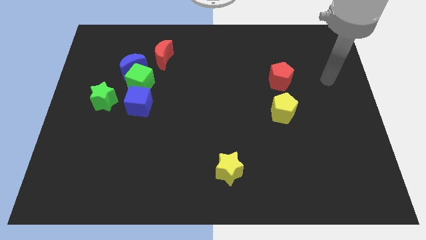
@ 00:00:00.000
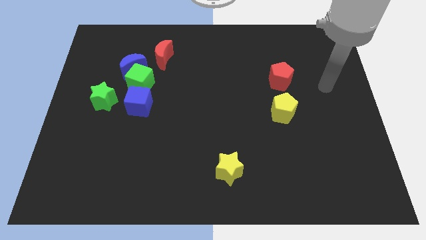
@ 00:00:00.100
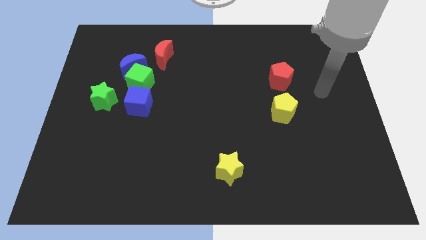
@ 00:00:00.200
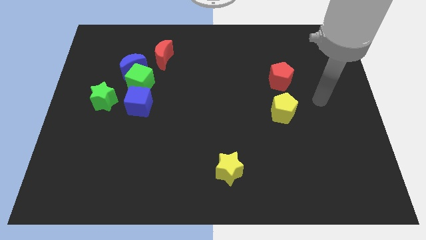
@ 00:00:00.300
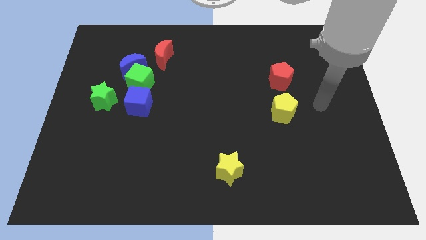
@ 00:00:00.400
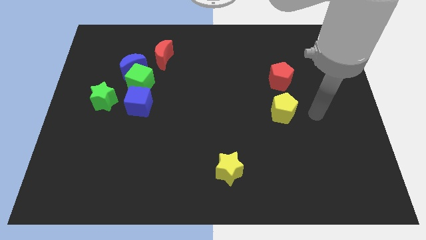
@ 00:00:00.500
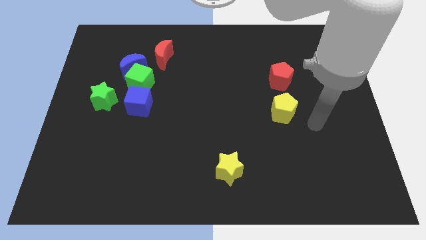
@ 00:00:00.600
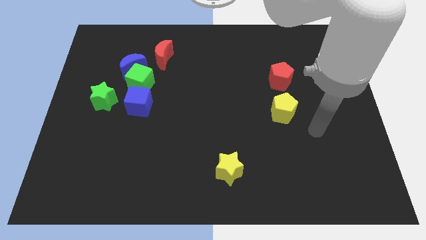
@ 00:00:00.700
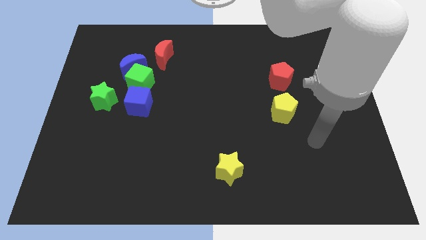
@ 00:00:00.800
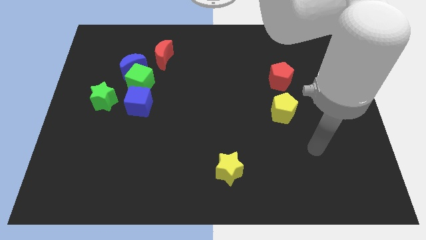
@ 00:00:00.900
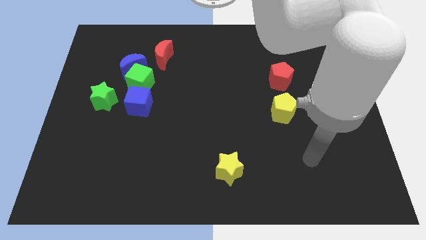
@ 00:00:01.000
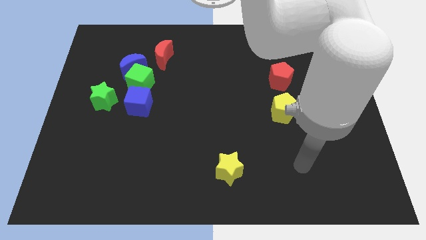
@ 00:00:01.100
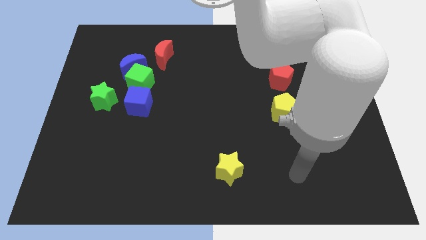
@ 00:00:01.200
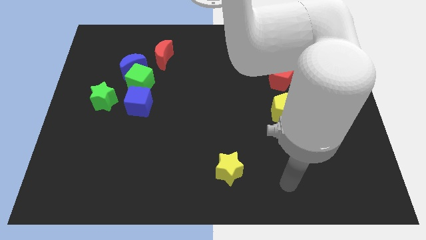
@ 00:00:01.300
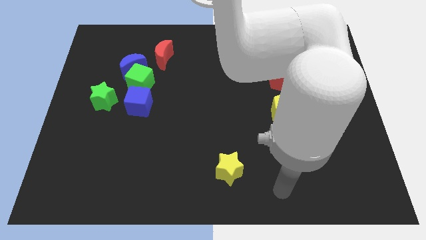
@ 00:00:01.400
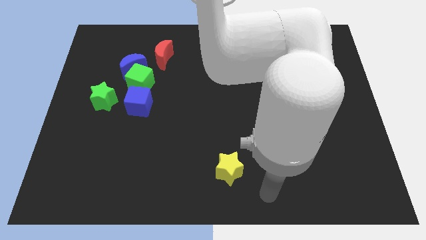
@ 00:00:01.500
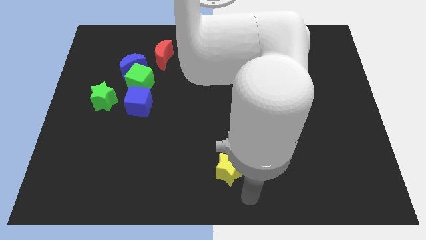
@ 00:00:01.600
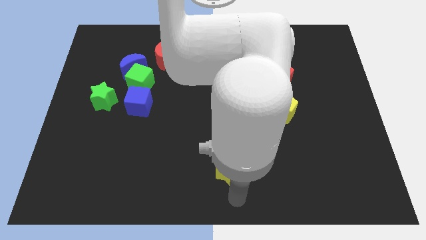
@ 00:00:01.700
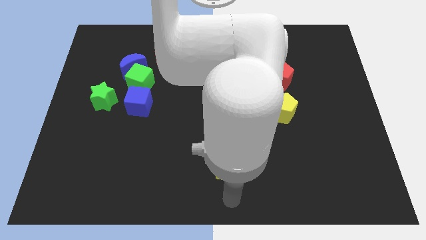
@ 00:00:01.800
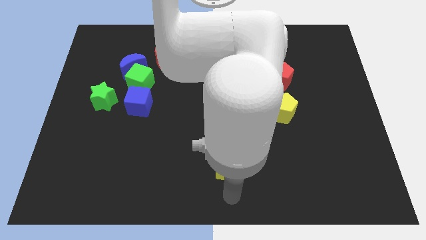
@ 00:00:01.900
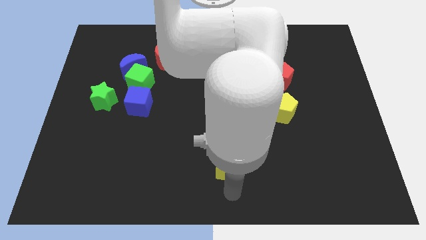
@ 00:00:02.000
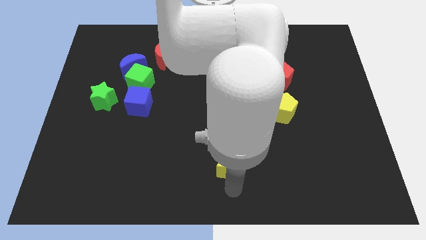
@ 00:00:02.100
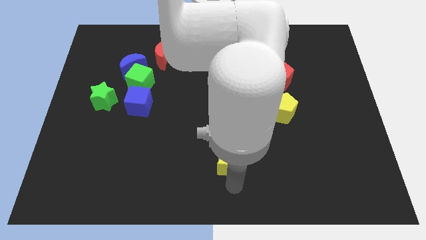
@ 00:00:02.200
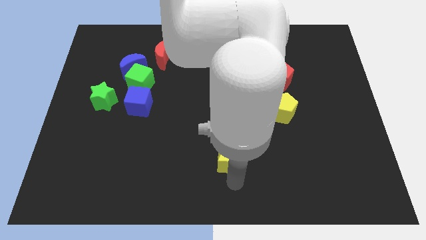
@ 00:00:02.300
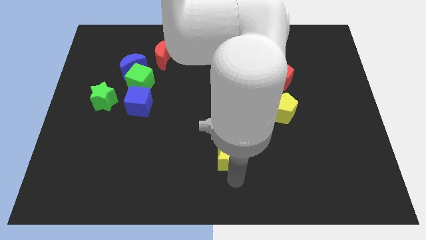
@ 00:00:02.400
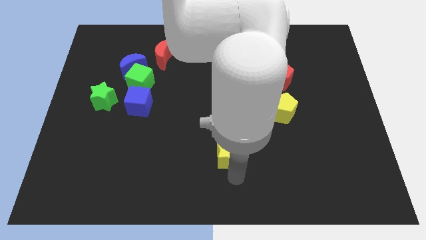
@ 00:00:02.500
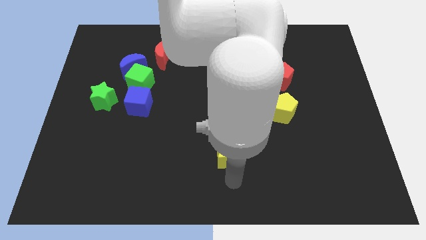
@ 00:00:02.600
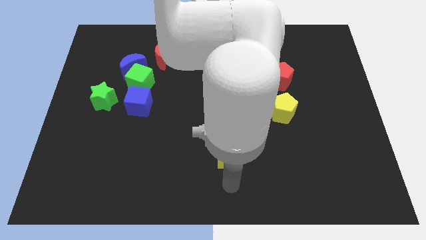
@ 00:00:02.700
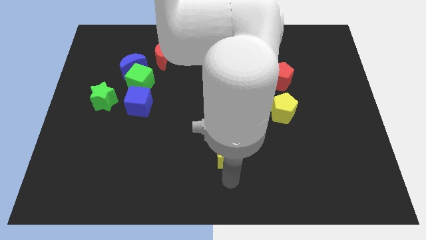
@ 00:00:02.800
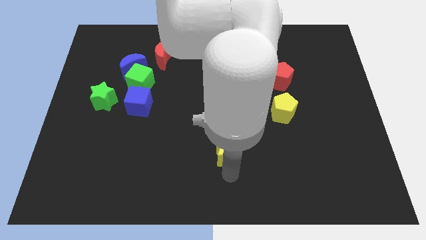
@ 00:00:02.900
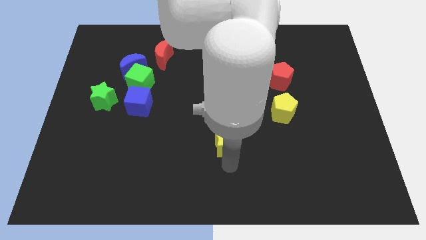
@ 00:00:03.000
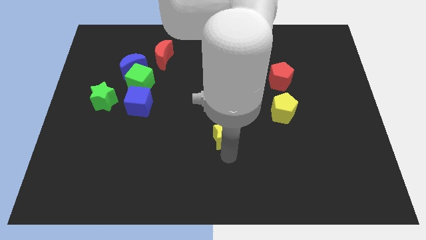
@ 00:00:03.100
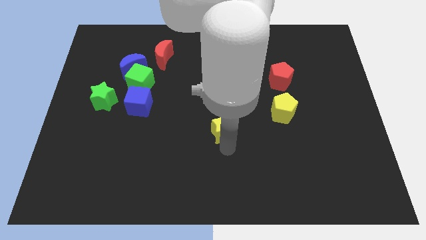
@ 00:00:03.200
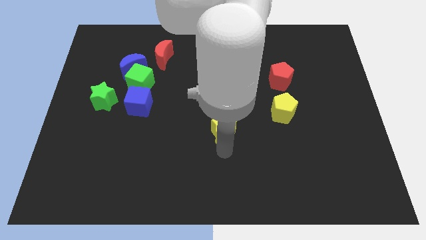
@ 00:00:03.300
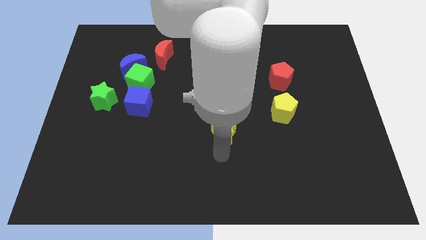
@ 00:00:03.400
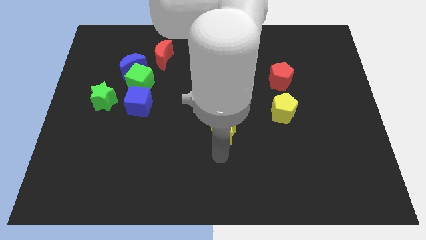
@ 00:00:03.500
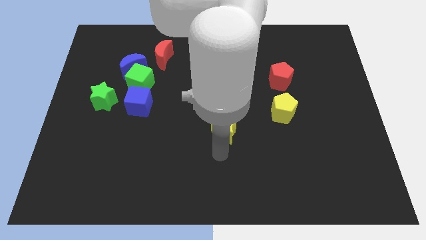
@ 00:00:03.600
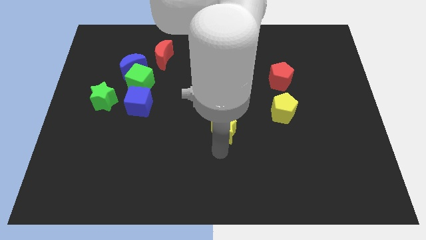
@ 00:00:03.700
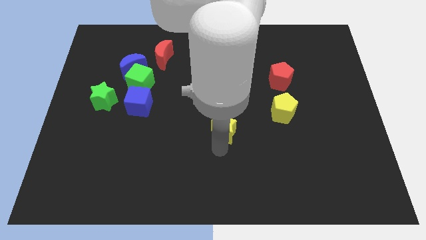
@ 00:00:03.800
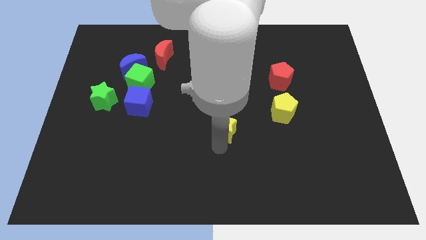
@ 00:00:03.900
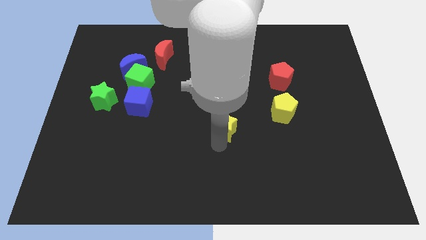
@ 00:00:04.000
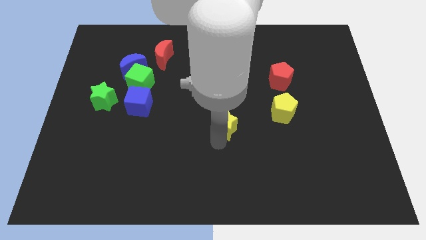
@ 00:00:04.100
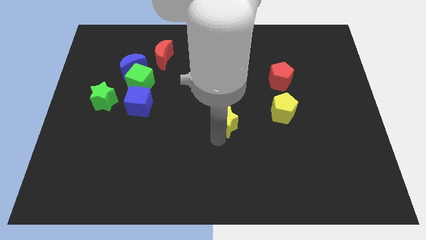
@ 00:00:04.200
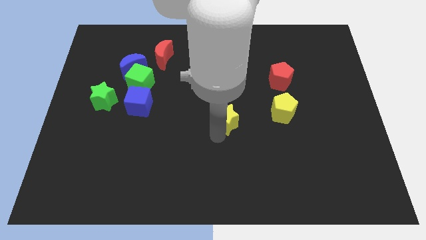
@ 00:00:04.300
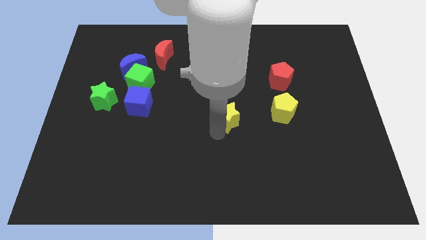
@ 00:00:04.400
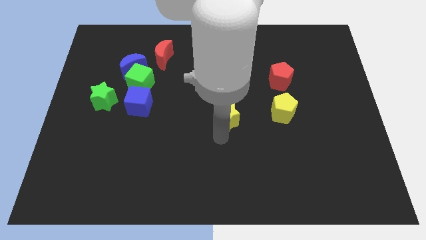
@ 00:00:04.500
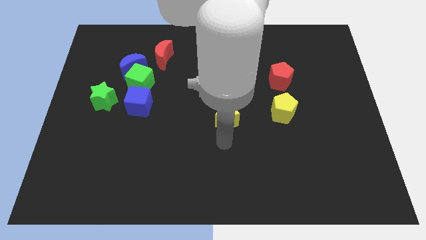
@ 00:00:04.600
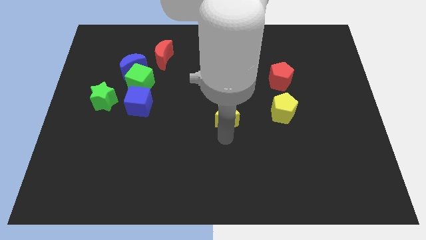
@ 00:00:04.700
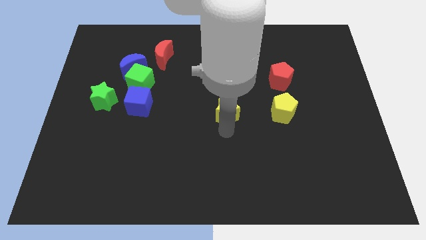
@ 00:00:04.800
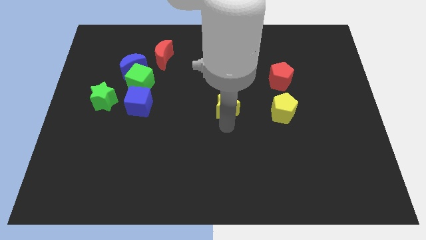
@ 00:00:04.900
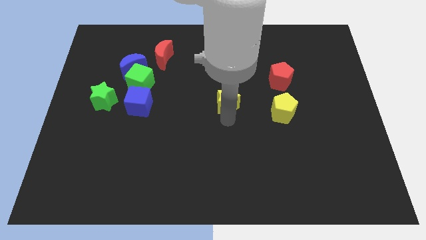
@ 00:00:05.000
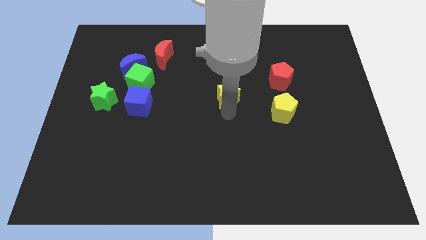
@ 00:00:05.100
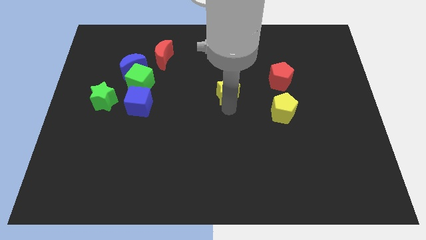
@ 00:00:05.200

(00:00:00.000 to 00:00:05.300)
move the yellow star upwards

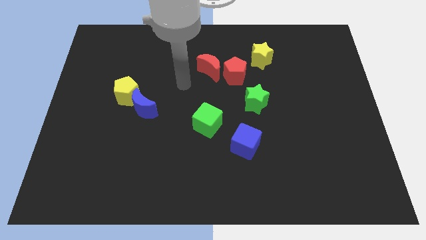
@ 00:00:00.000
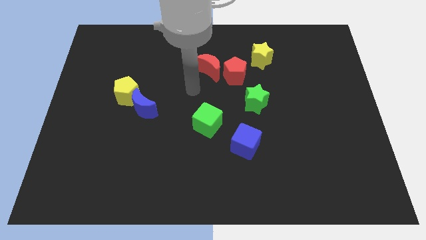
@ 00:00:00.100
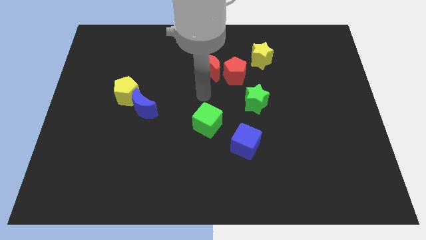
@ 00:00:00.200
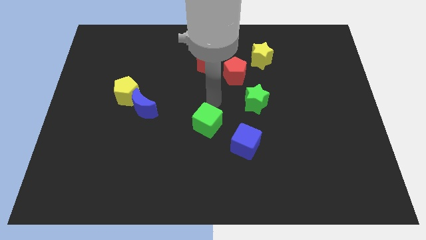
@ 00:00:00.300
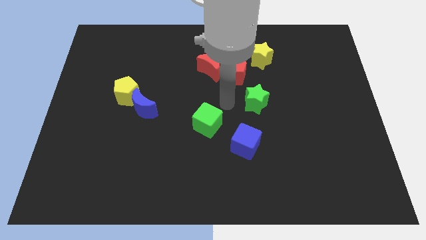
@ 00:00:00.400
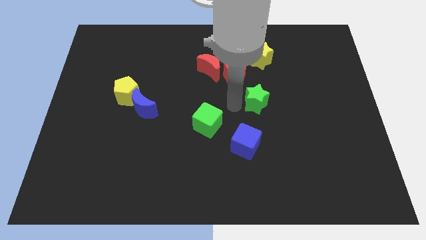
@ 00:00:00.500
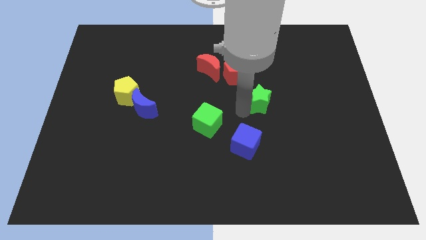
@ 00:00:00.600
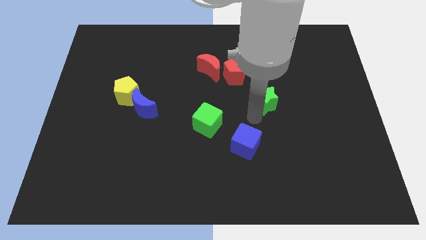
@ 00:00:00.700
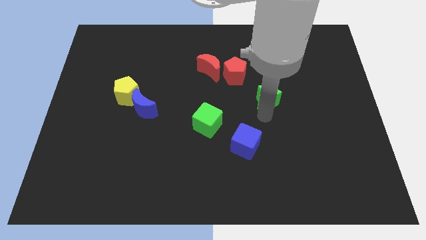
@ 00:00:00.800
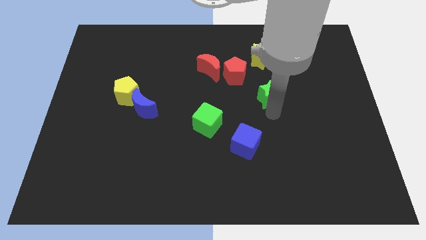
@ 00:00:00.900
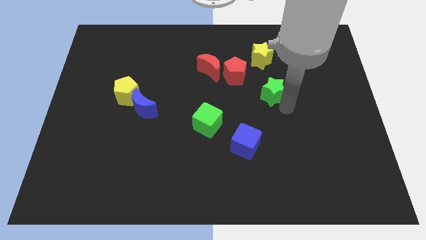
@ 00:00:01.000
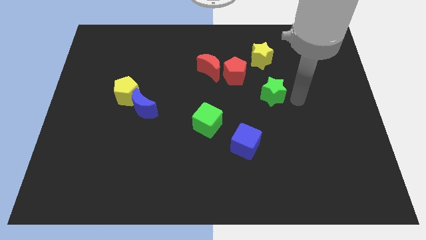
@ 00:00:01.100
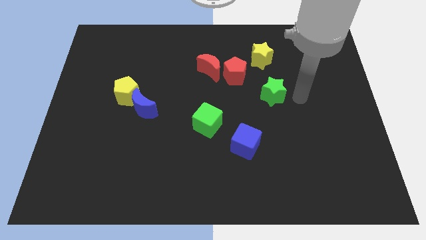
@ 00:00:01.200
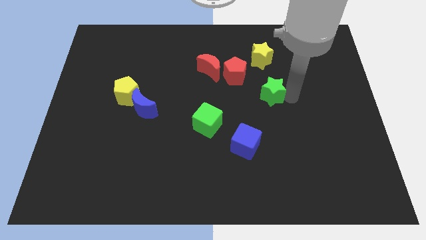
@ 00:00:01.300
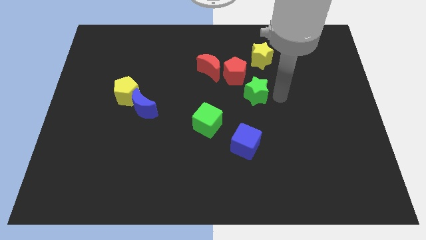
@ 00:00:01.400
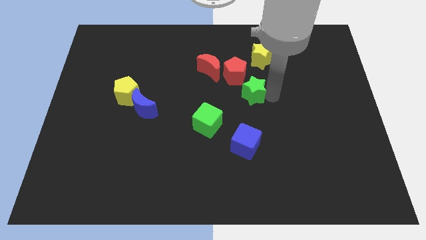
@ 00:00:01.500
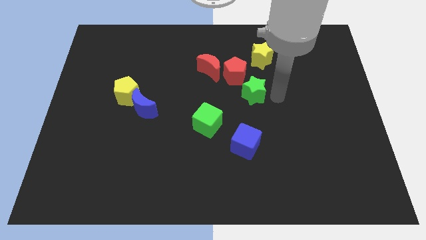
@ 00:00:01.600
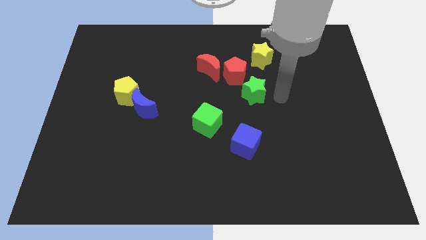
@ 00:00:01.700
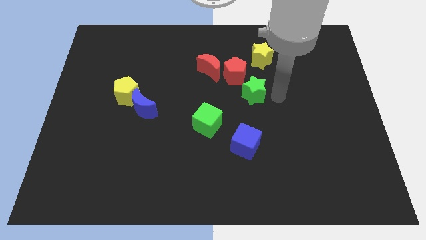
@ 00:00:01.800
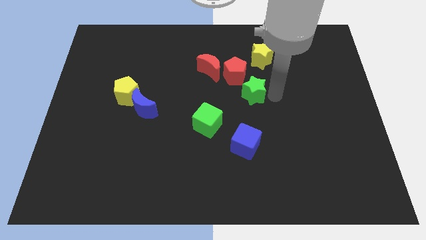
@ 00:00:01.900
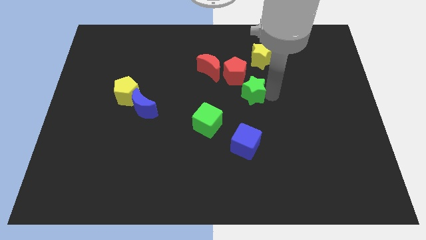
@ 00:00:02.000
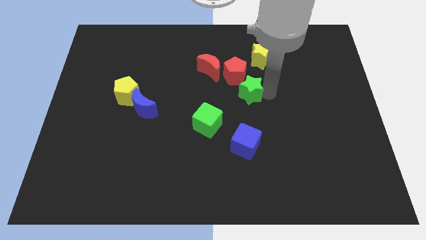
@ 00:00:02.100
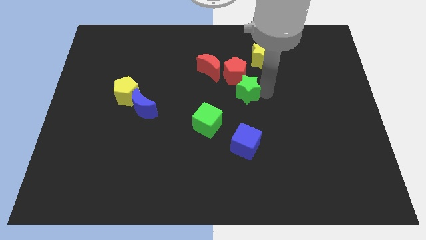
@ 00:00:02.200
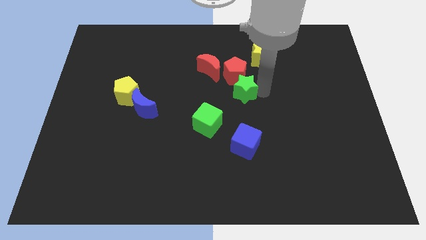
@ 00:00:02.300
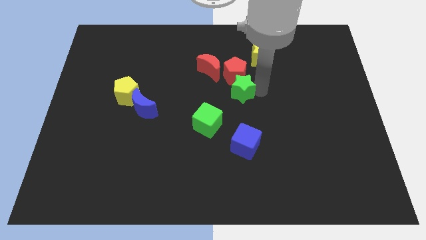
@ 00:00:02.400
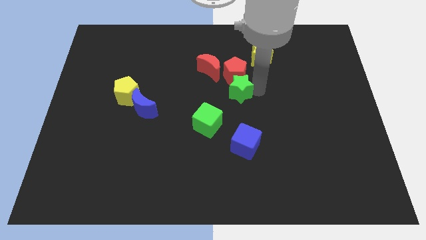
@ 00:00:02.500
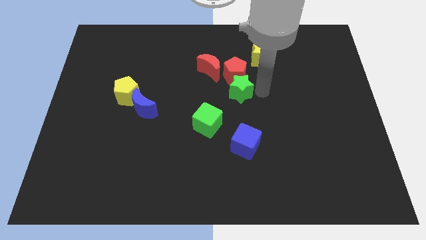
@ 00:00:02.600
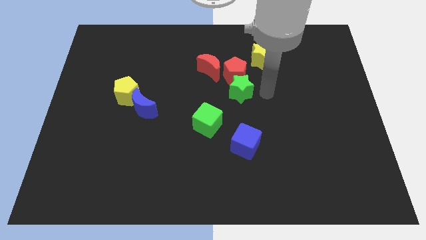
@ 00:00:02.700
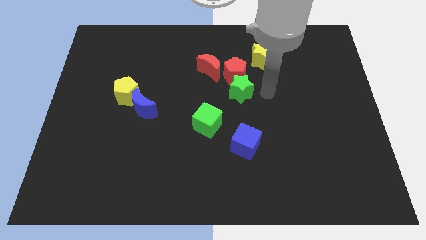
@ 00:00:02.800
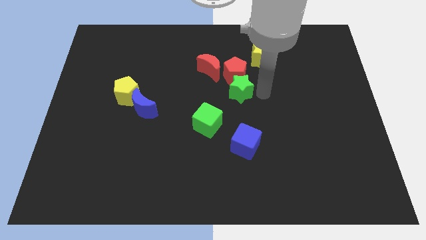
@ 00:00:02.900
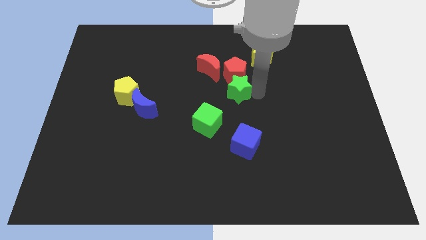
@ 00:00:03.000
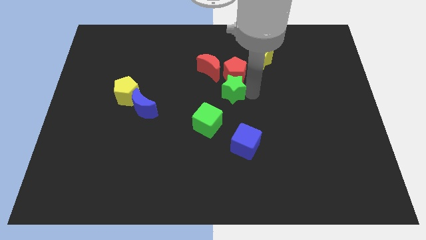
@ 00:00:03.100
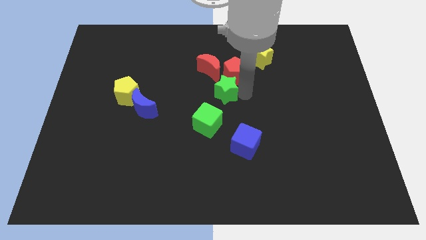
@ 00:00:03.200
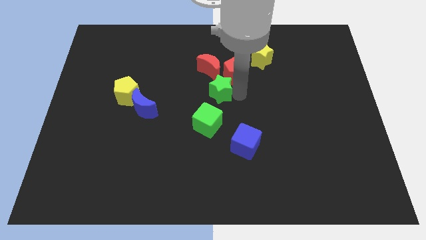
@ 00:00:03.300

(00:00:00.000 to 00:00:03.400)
slide the green star diagonally upwards and left a little bit
